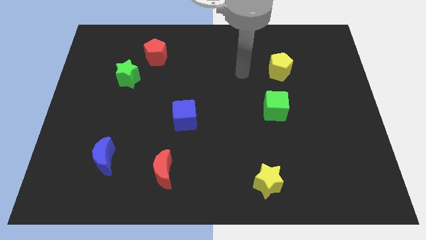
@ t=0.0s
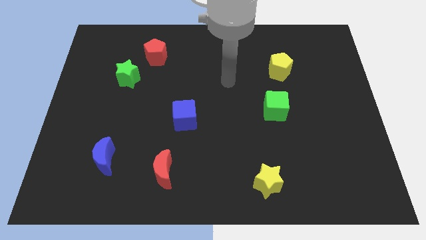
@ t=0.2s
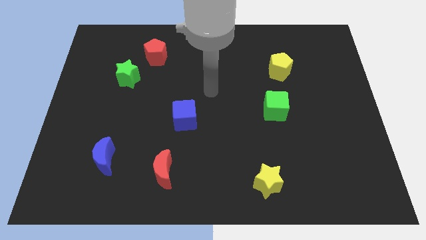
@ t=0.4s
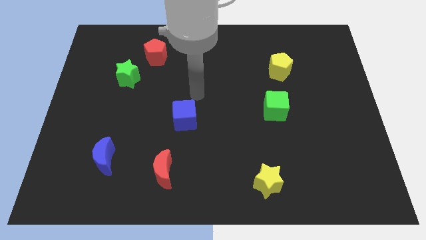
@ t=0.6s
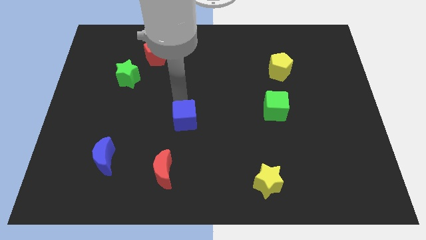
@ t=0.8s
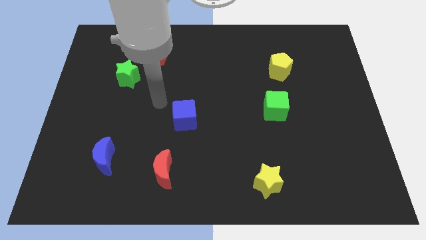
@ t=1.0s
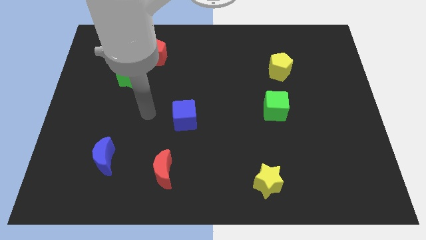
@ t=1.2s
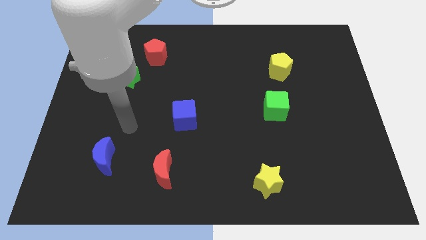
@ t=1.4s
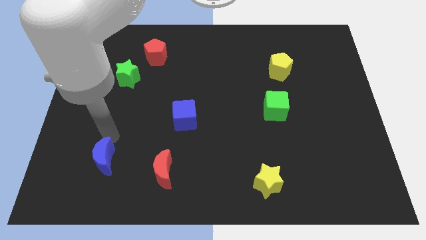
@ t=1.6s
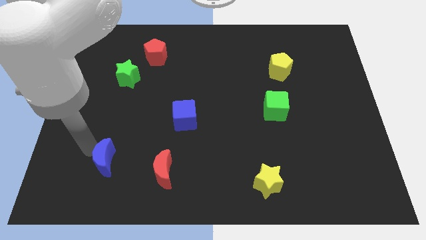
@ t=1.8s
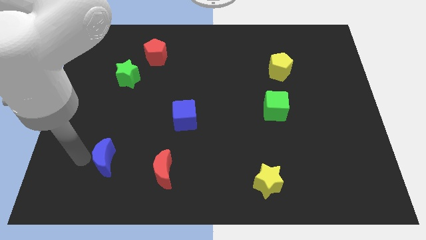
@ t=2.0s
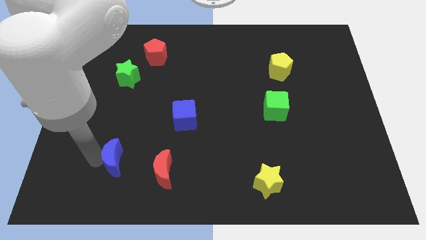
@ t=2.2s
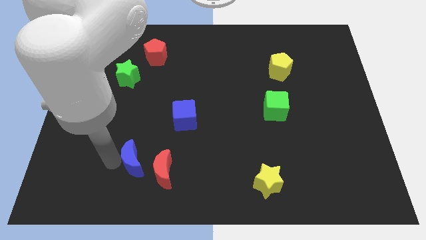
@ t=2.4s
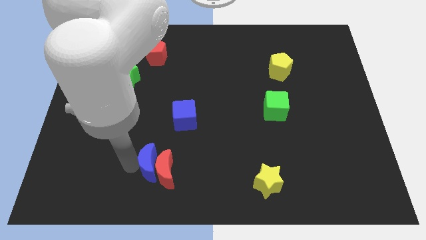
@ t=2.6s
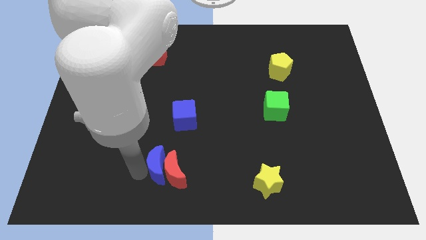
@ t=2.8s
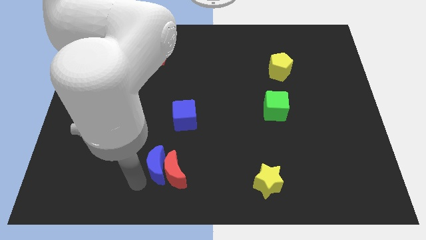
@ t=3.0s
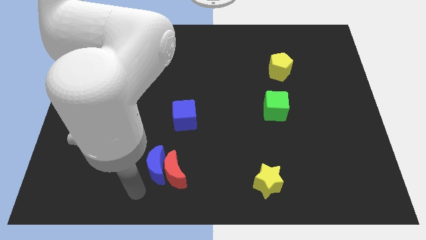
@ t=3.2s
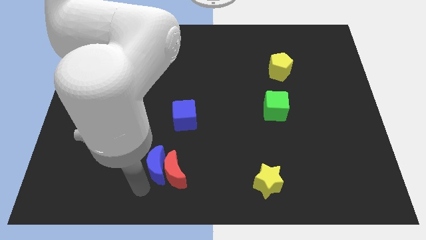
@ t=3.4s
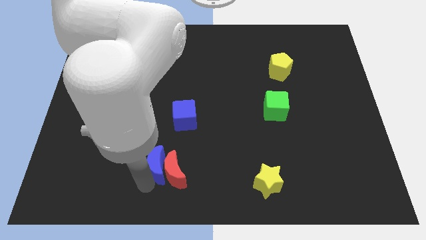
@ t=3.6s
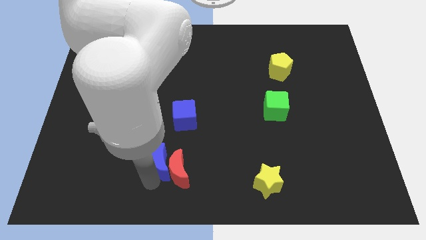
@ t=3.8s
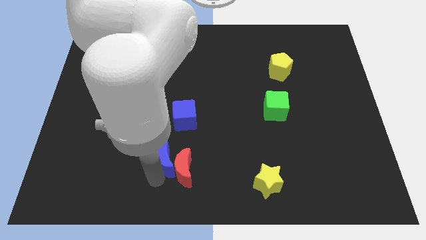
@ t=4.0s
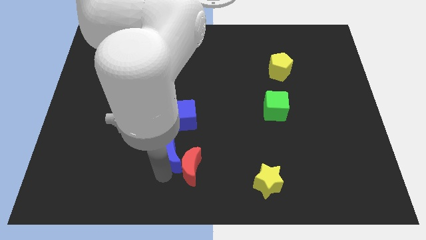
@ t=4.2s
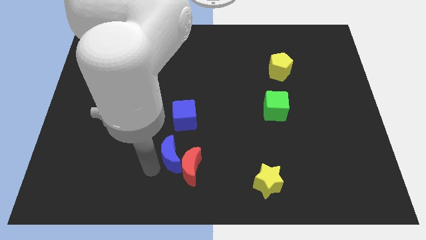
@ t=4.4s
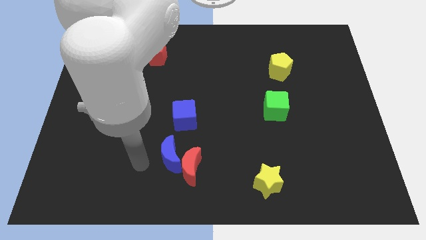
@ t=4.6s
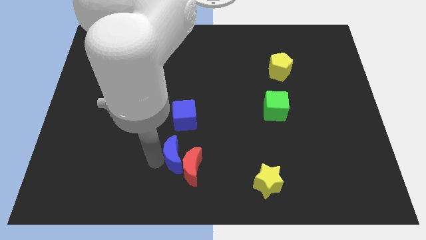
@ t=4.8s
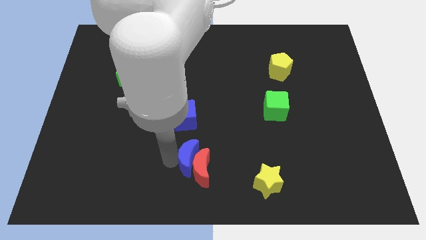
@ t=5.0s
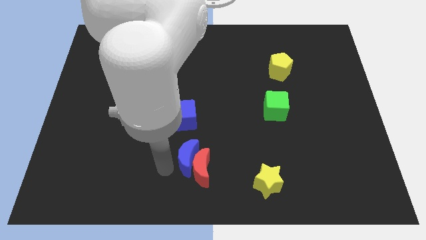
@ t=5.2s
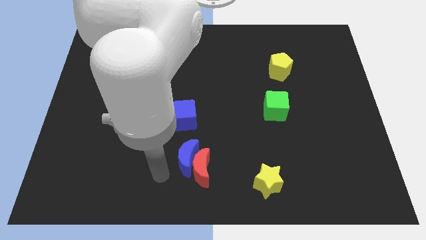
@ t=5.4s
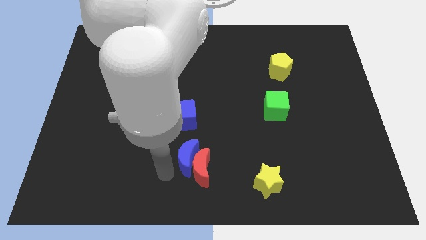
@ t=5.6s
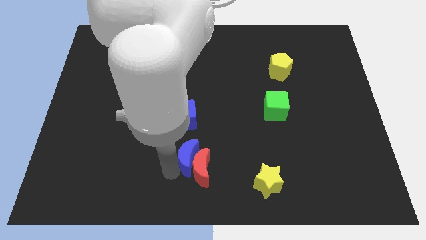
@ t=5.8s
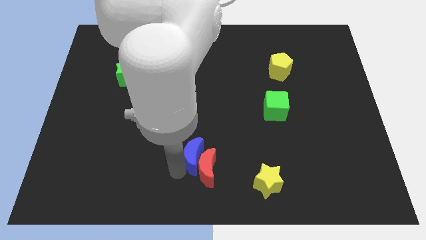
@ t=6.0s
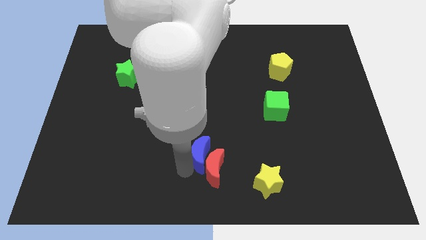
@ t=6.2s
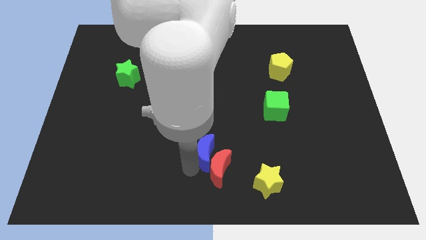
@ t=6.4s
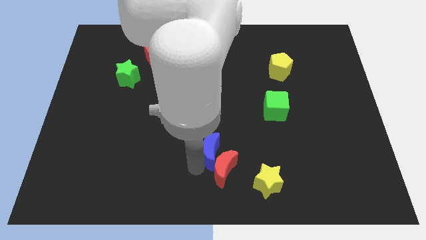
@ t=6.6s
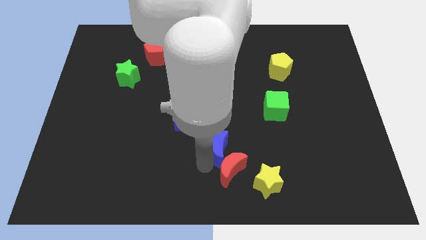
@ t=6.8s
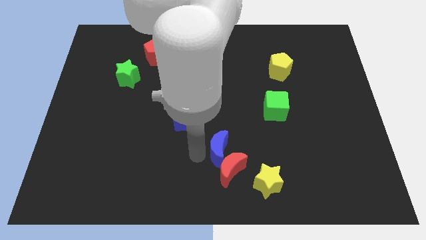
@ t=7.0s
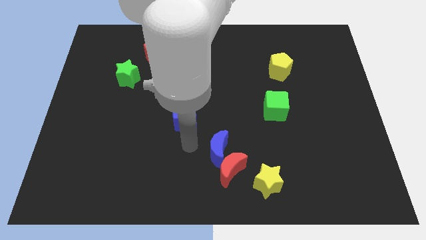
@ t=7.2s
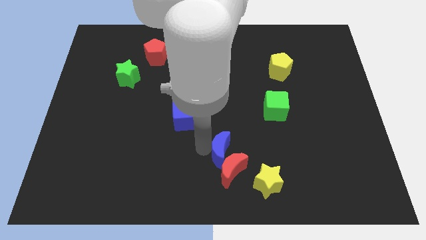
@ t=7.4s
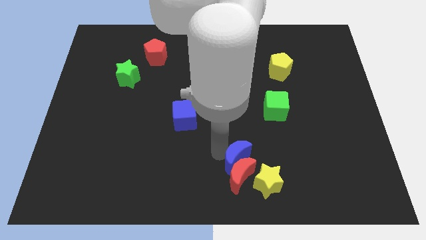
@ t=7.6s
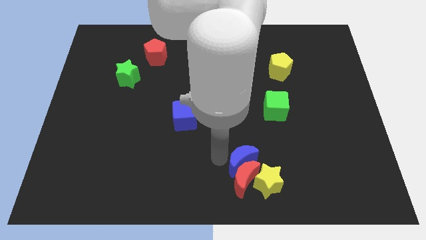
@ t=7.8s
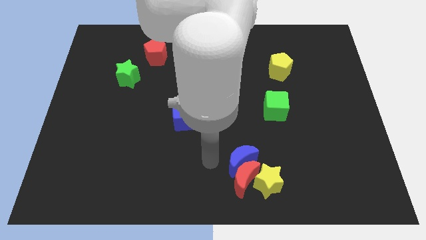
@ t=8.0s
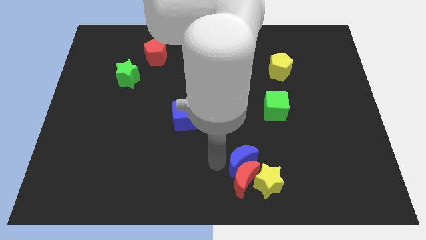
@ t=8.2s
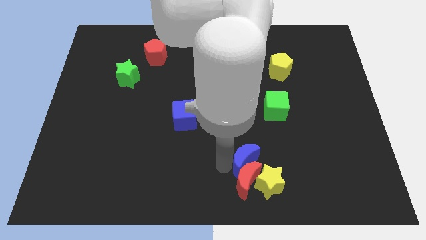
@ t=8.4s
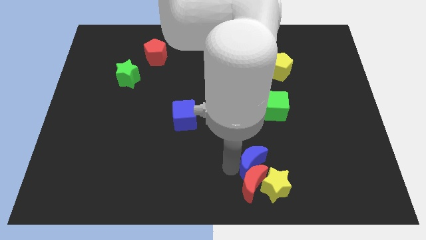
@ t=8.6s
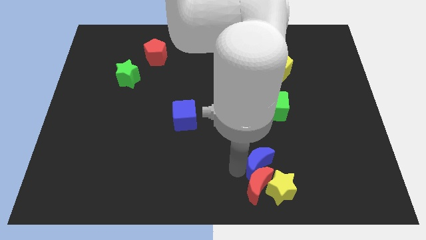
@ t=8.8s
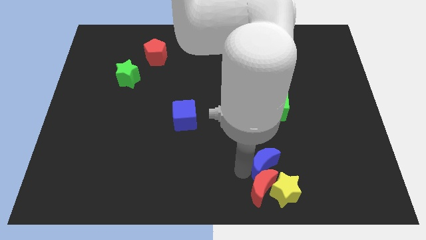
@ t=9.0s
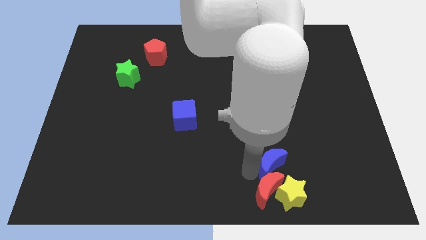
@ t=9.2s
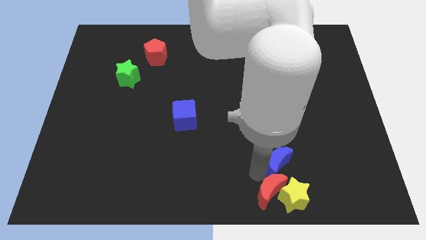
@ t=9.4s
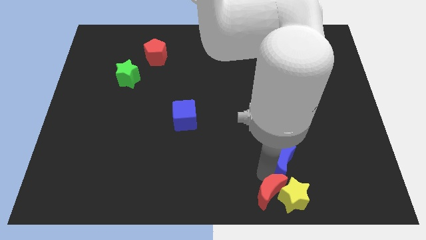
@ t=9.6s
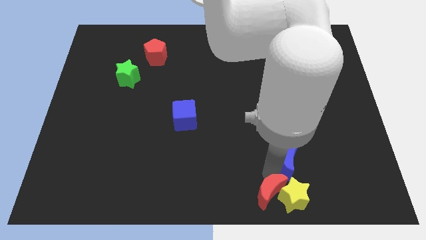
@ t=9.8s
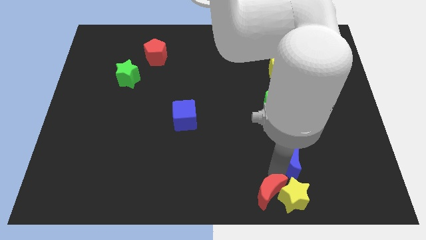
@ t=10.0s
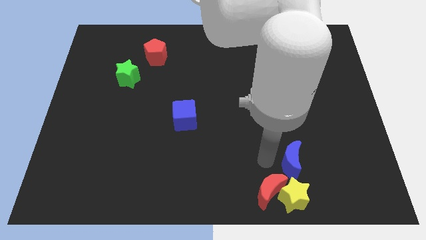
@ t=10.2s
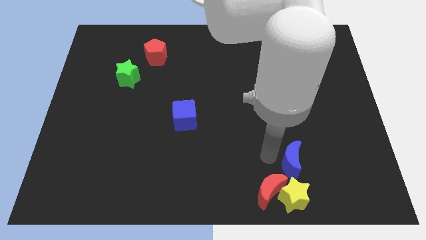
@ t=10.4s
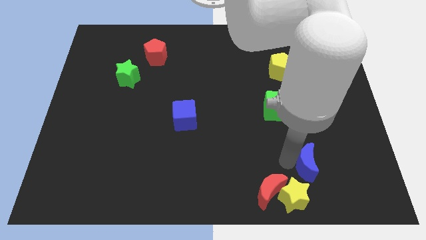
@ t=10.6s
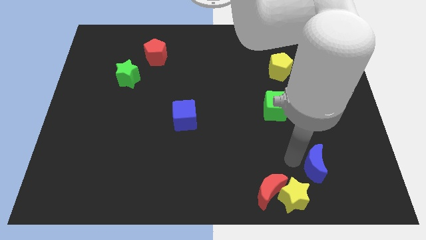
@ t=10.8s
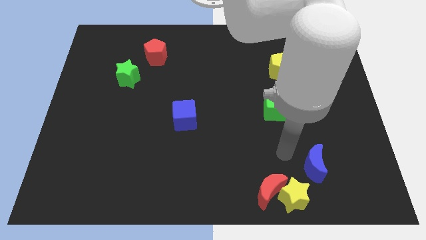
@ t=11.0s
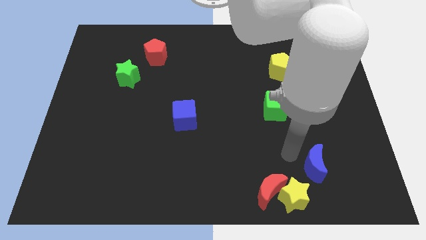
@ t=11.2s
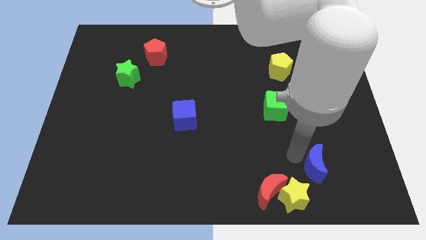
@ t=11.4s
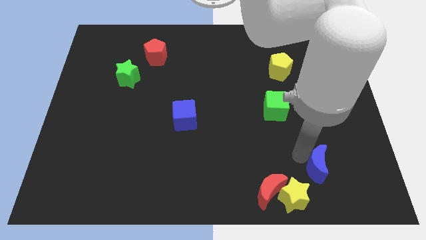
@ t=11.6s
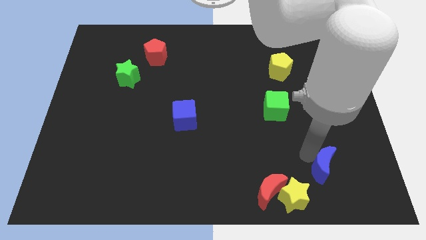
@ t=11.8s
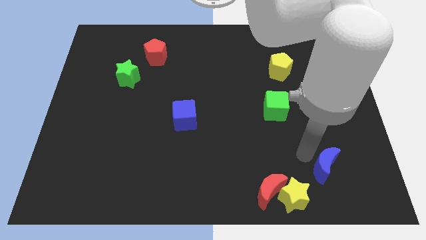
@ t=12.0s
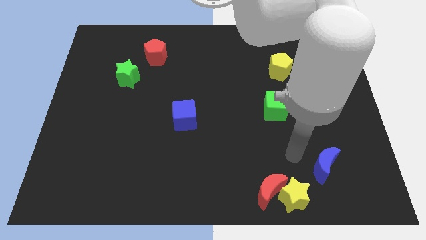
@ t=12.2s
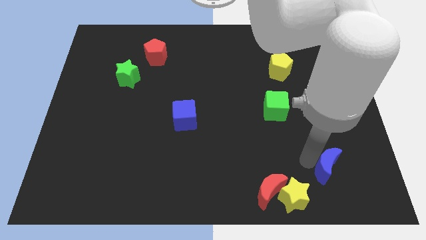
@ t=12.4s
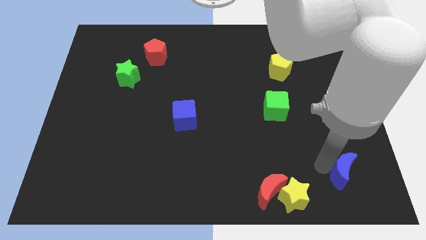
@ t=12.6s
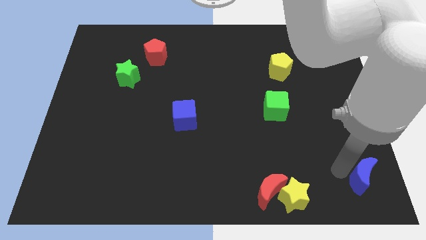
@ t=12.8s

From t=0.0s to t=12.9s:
move the blue moon to the lower right corner

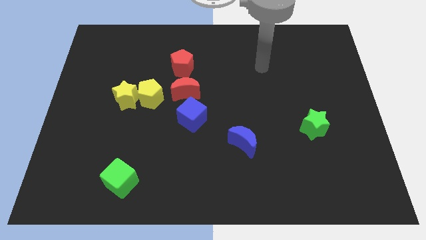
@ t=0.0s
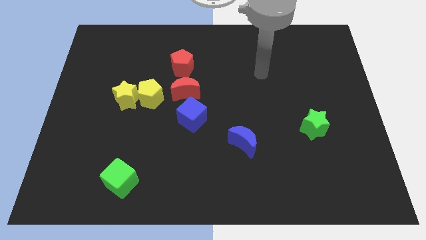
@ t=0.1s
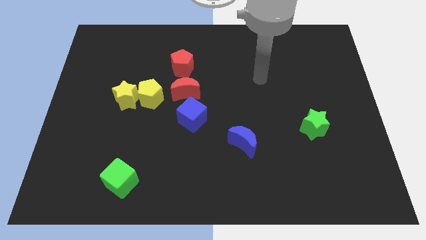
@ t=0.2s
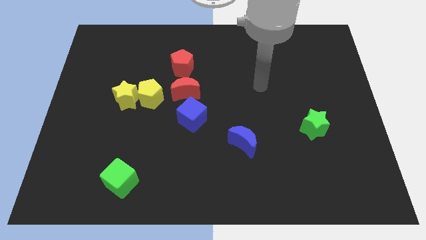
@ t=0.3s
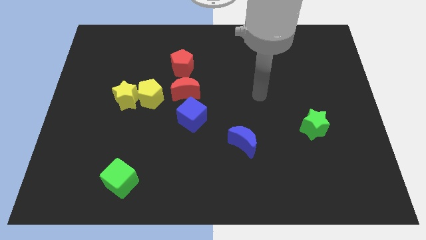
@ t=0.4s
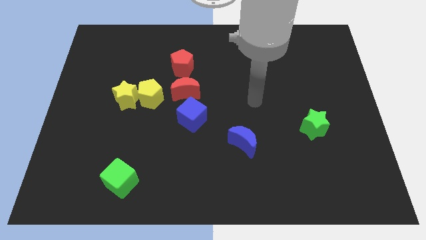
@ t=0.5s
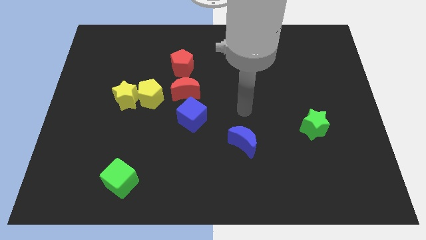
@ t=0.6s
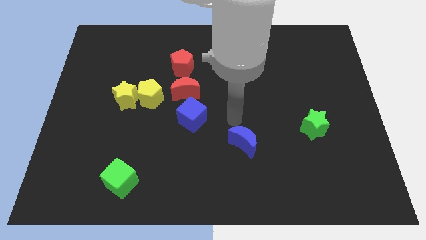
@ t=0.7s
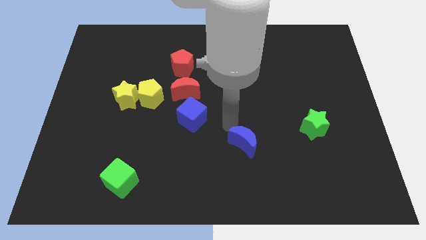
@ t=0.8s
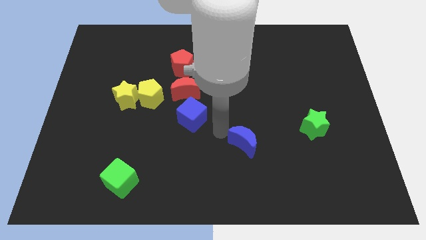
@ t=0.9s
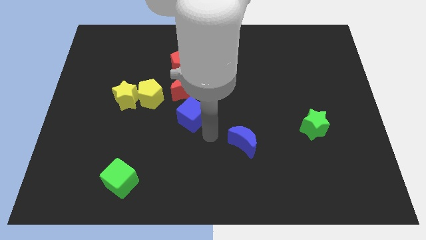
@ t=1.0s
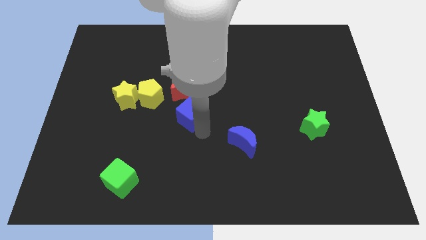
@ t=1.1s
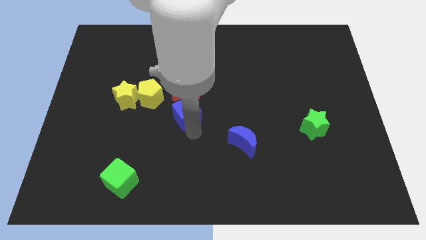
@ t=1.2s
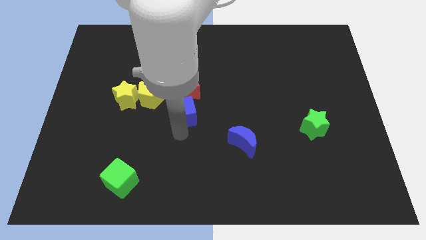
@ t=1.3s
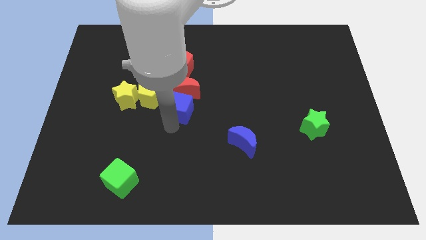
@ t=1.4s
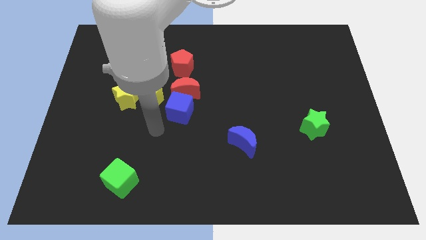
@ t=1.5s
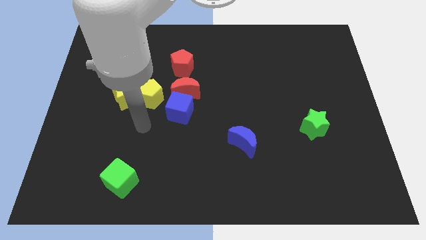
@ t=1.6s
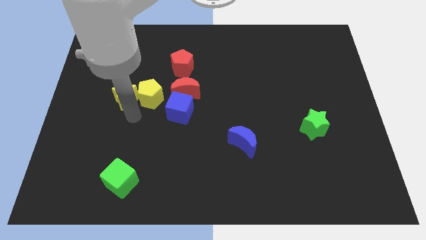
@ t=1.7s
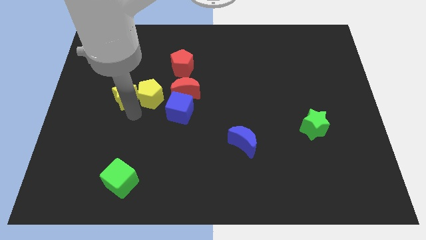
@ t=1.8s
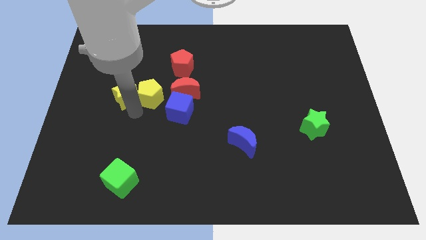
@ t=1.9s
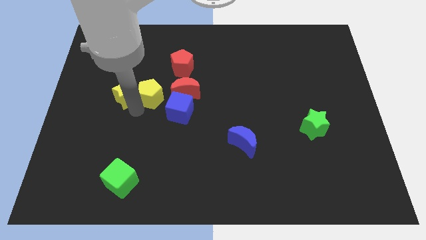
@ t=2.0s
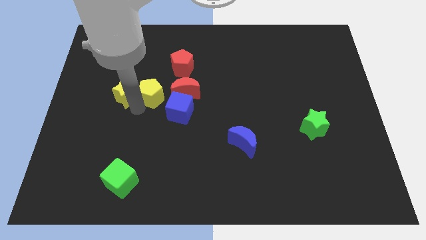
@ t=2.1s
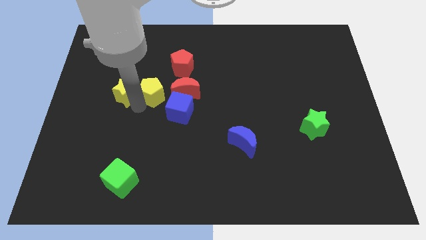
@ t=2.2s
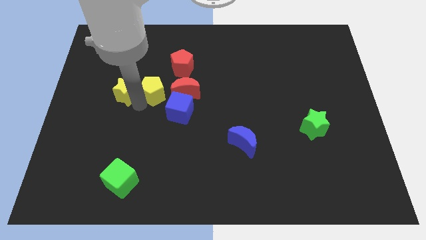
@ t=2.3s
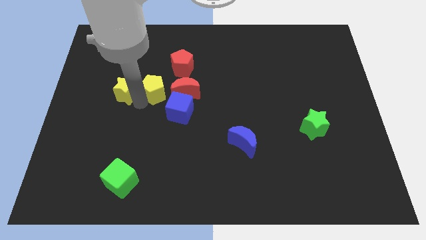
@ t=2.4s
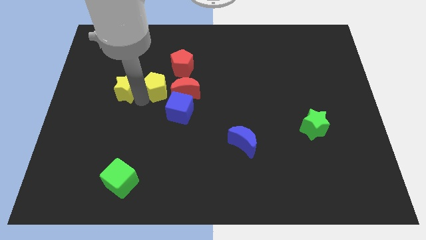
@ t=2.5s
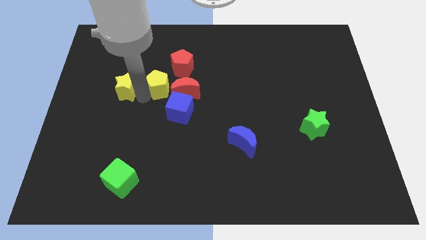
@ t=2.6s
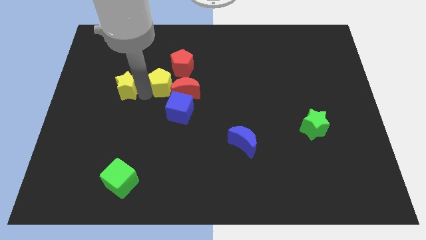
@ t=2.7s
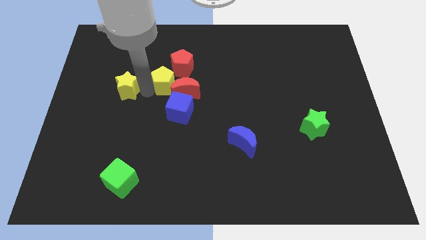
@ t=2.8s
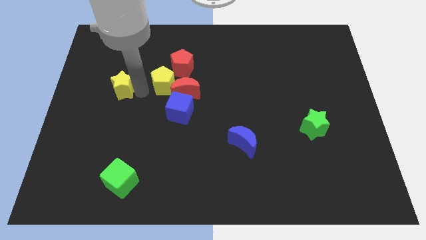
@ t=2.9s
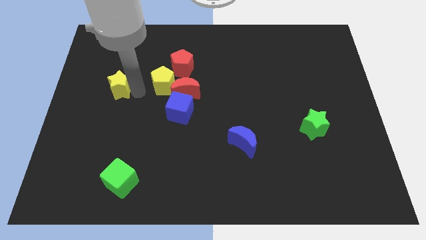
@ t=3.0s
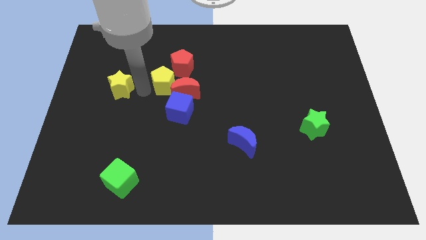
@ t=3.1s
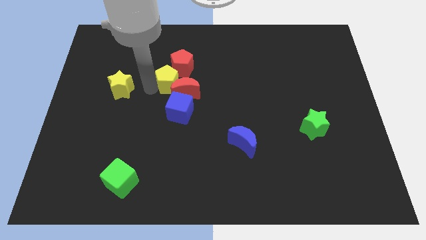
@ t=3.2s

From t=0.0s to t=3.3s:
slide the yellow pentagon to the middle
